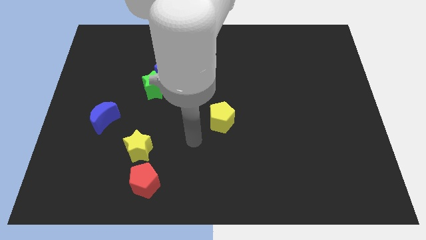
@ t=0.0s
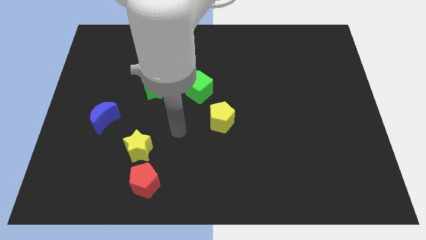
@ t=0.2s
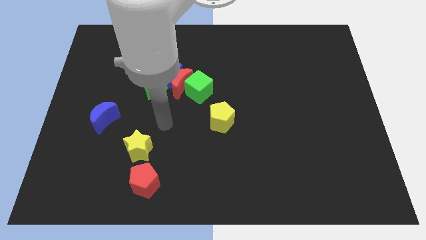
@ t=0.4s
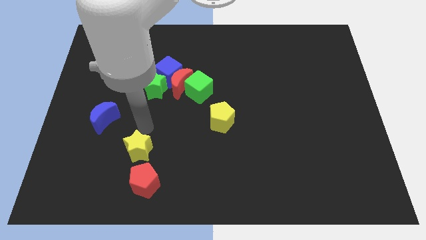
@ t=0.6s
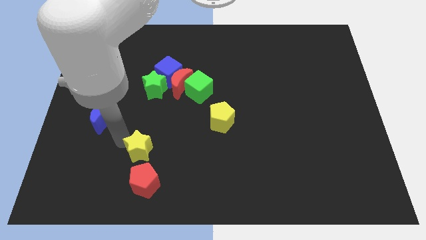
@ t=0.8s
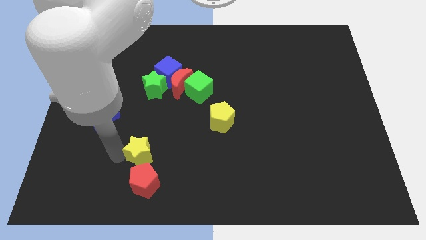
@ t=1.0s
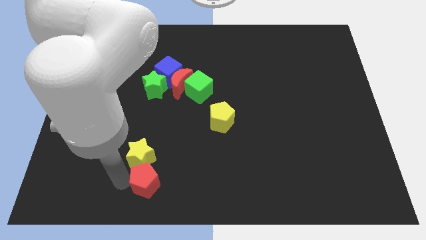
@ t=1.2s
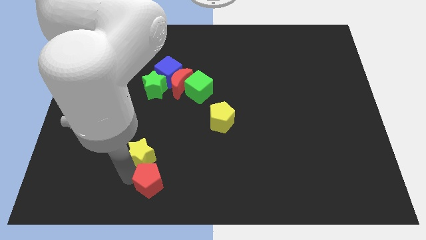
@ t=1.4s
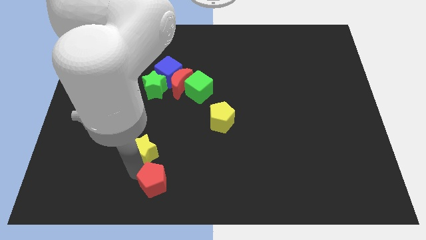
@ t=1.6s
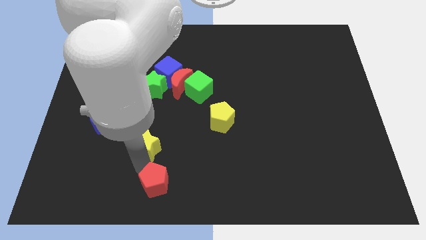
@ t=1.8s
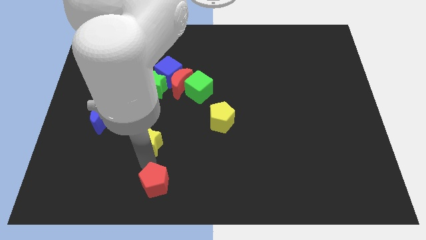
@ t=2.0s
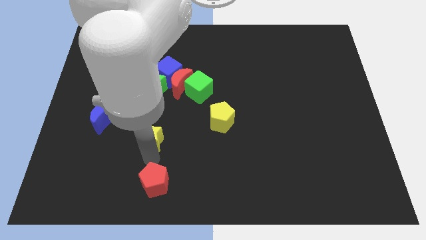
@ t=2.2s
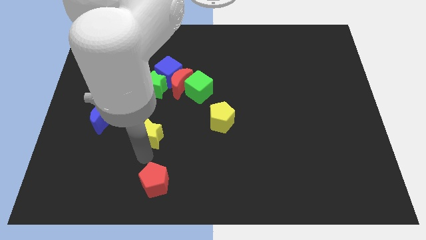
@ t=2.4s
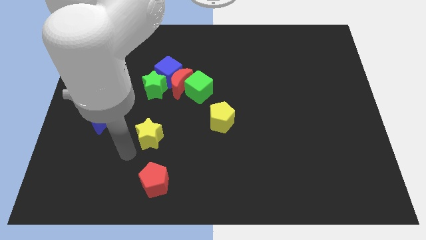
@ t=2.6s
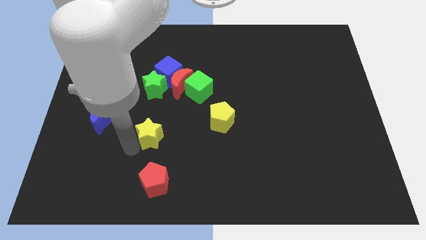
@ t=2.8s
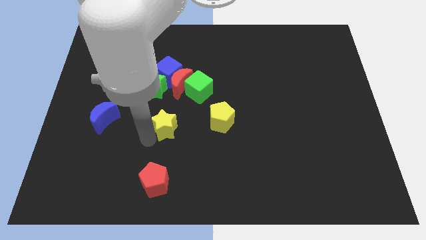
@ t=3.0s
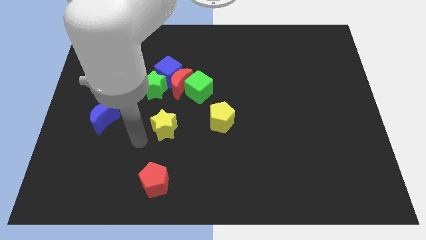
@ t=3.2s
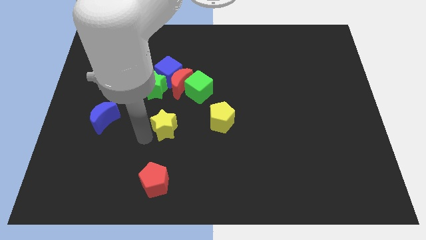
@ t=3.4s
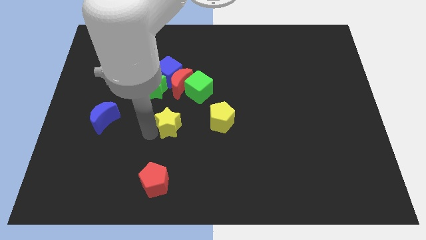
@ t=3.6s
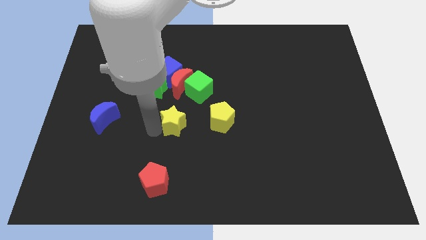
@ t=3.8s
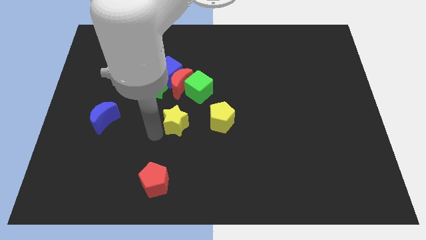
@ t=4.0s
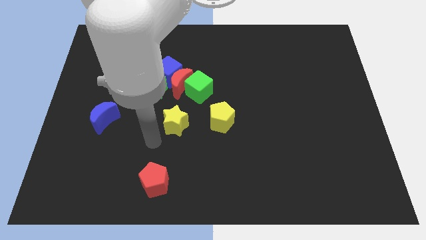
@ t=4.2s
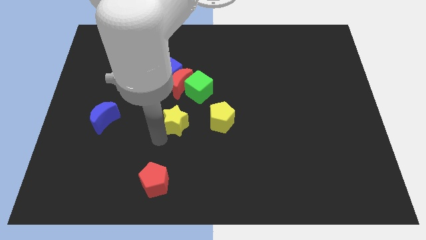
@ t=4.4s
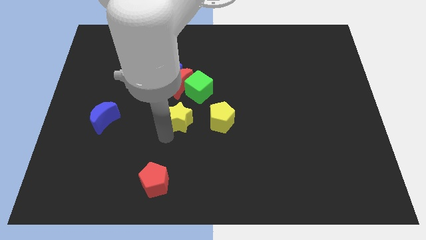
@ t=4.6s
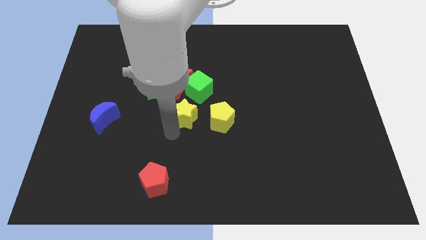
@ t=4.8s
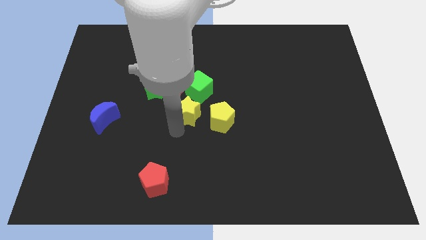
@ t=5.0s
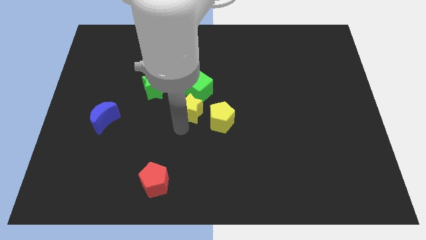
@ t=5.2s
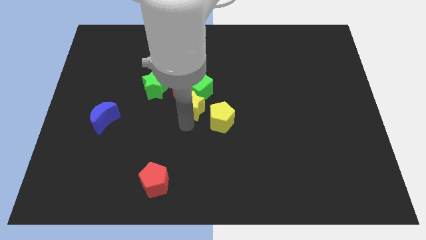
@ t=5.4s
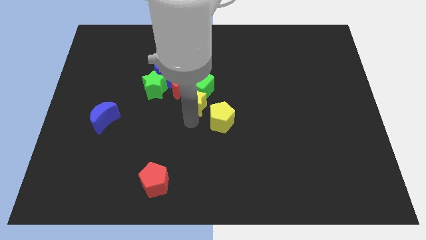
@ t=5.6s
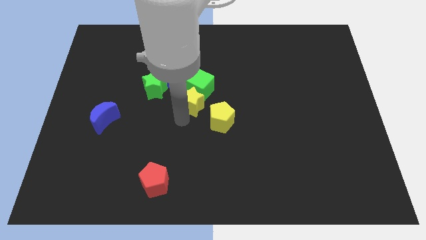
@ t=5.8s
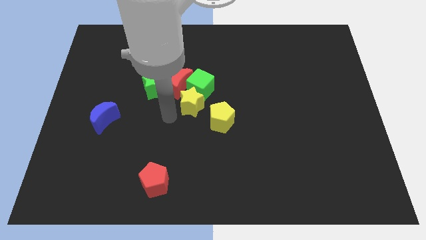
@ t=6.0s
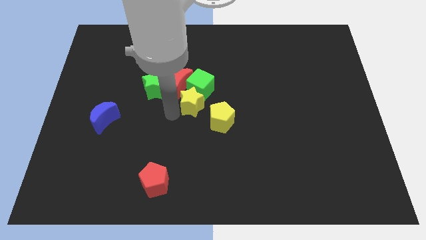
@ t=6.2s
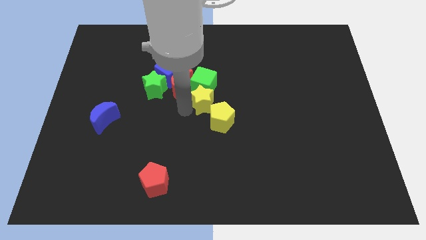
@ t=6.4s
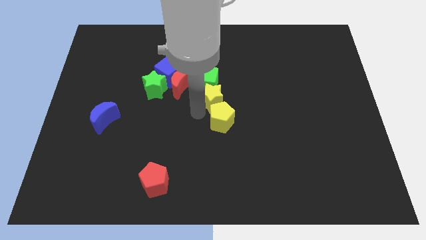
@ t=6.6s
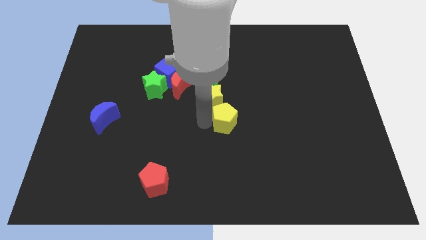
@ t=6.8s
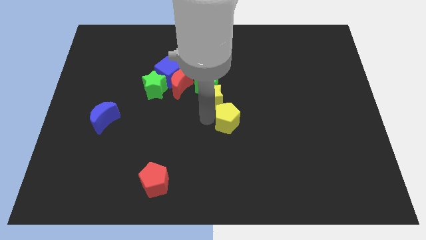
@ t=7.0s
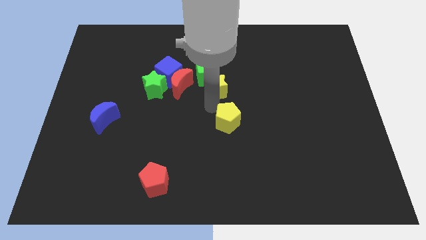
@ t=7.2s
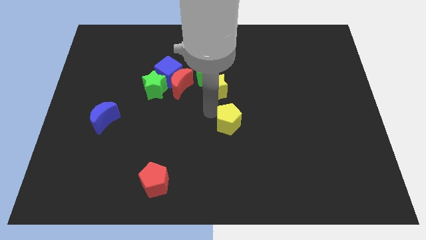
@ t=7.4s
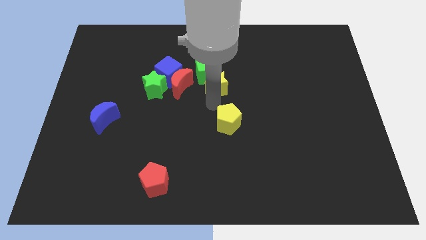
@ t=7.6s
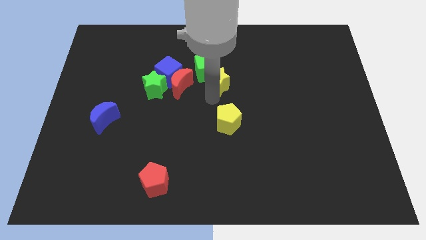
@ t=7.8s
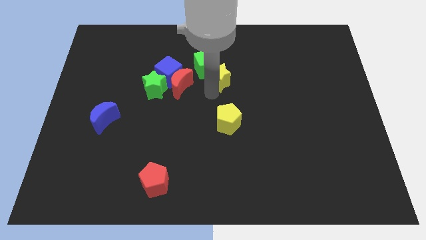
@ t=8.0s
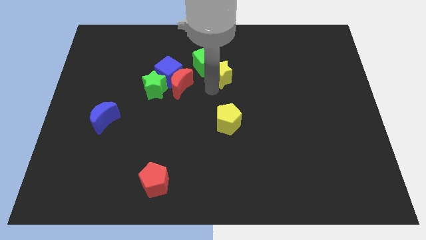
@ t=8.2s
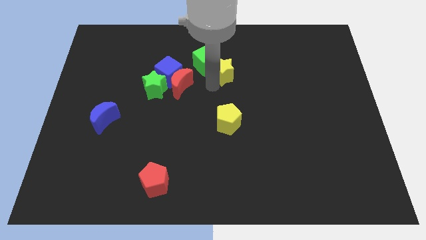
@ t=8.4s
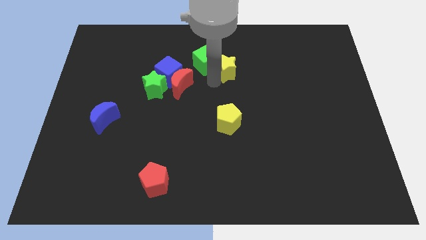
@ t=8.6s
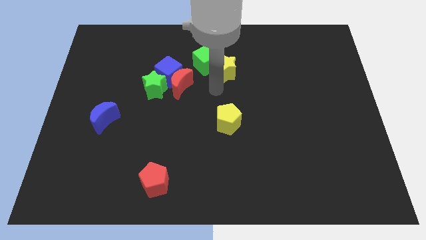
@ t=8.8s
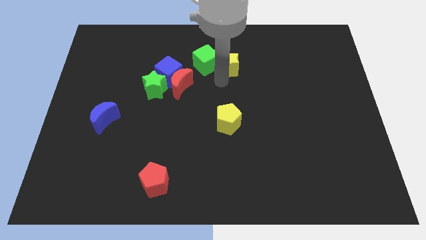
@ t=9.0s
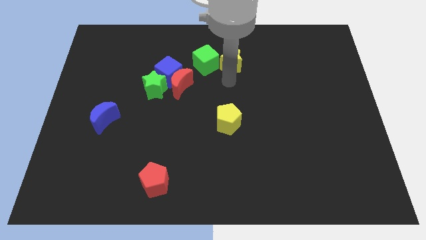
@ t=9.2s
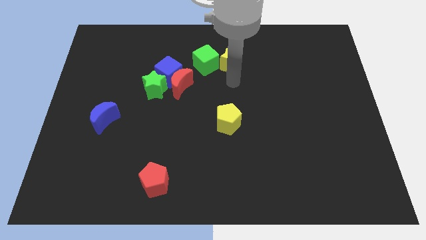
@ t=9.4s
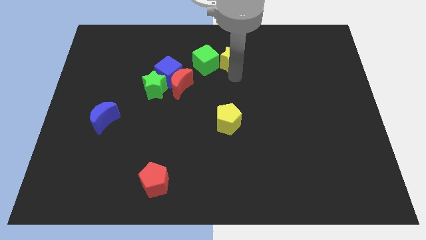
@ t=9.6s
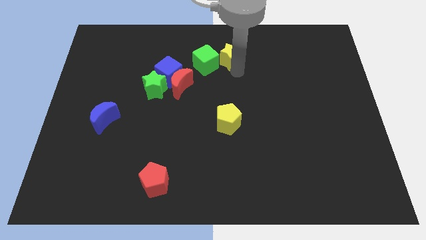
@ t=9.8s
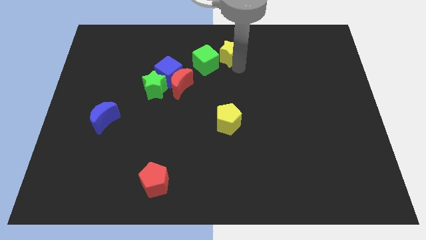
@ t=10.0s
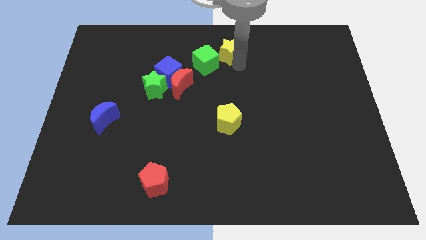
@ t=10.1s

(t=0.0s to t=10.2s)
push the yellow star to the towards your base

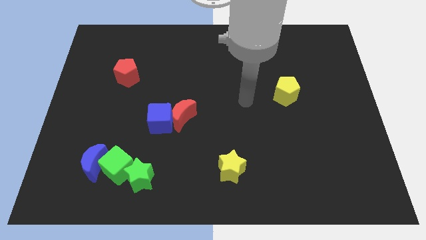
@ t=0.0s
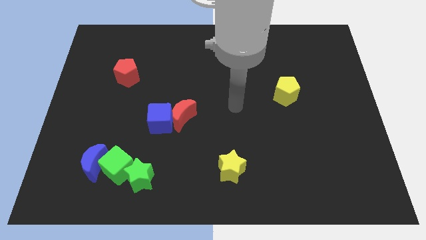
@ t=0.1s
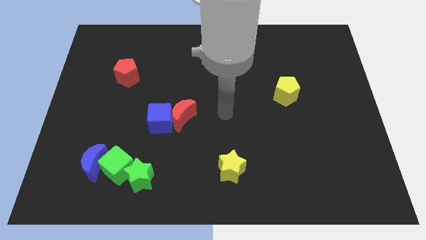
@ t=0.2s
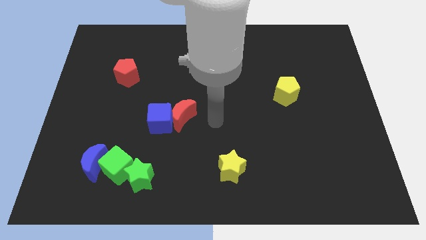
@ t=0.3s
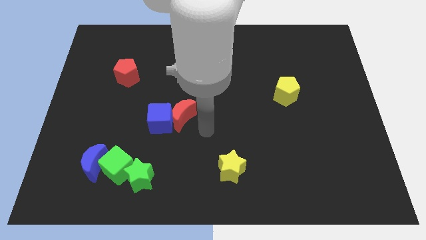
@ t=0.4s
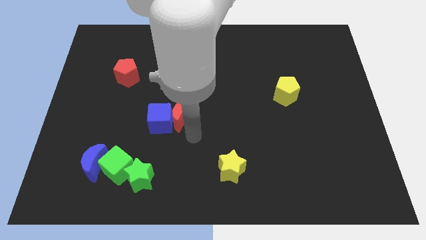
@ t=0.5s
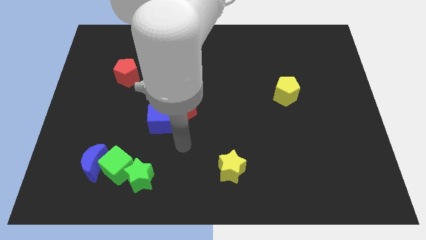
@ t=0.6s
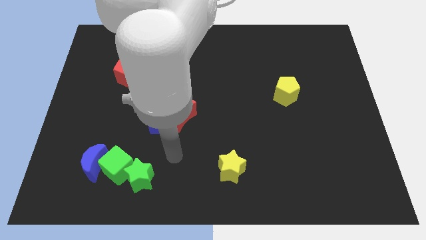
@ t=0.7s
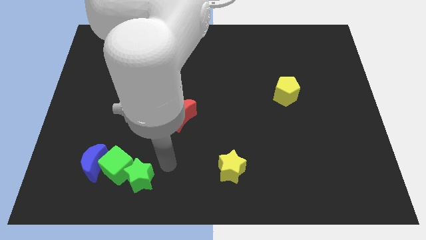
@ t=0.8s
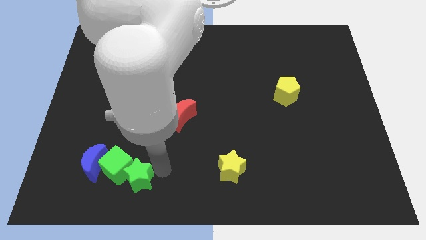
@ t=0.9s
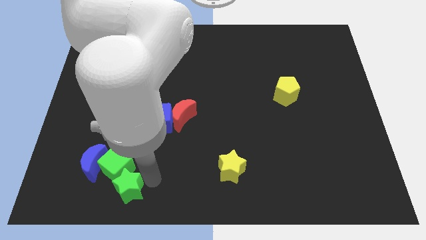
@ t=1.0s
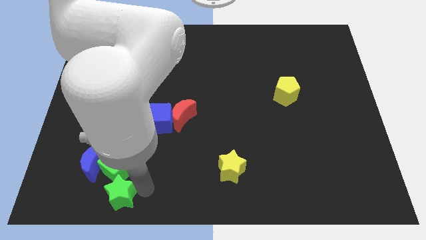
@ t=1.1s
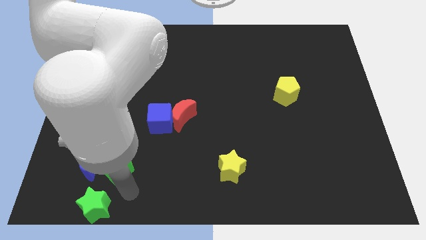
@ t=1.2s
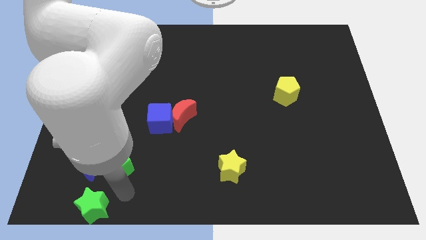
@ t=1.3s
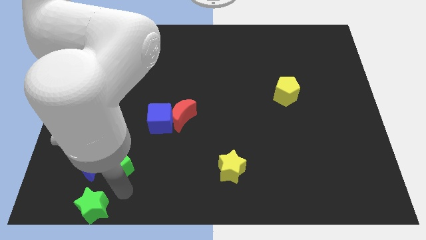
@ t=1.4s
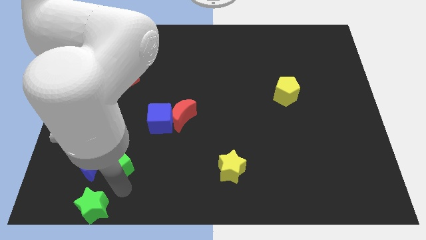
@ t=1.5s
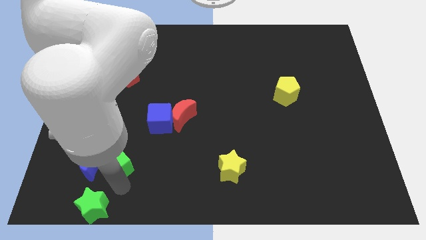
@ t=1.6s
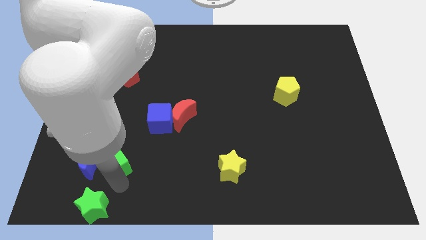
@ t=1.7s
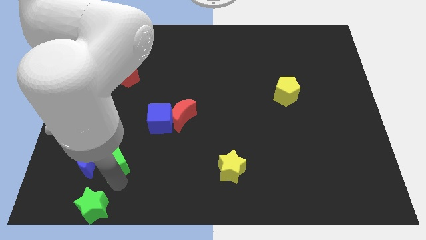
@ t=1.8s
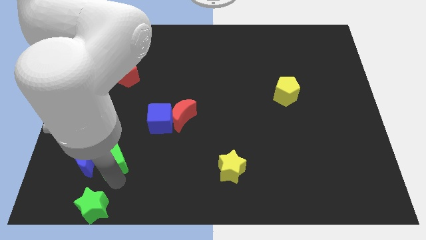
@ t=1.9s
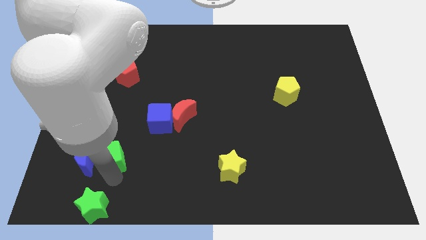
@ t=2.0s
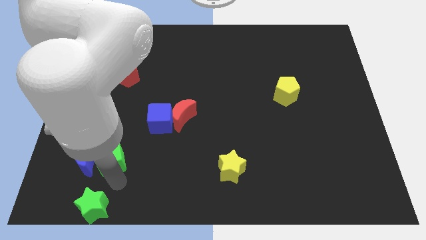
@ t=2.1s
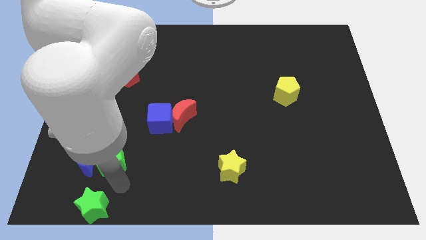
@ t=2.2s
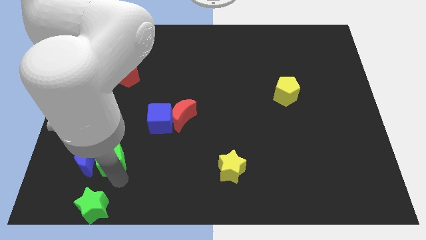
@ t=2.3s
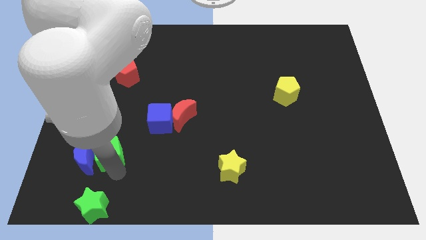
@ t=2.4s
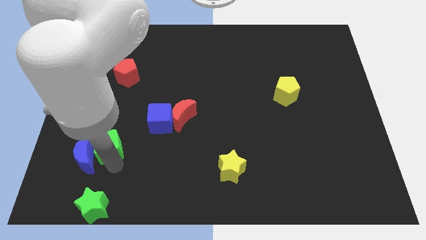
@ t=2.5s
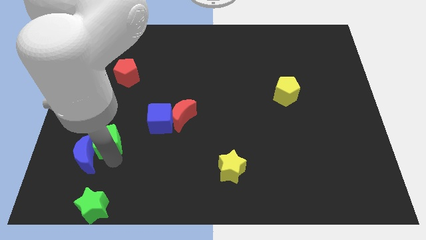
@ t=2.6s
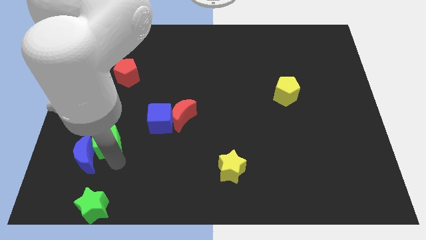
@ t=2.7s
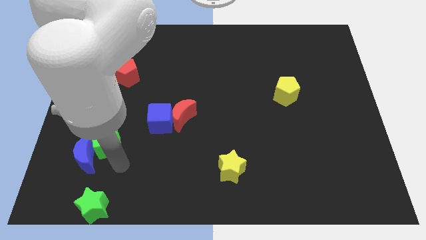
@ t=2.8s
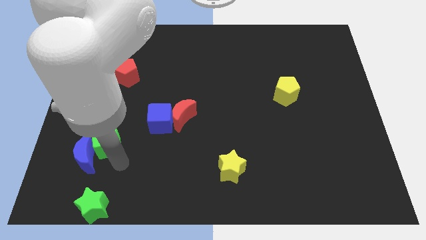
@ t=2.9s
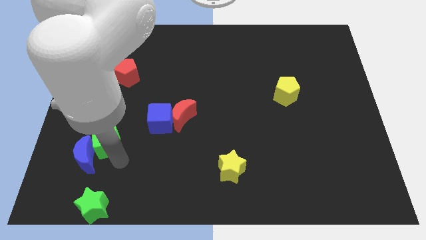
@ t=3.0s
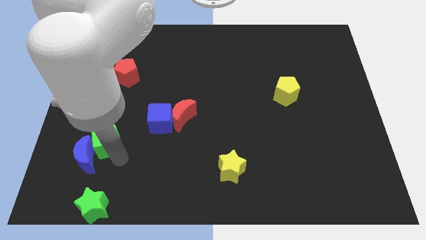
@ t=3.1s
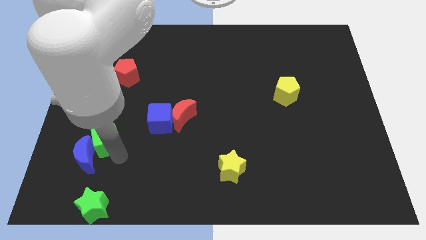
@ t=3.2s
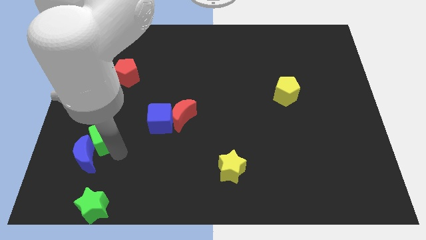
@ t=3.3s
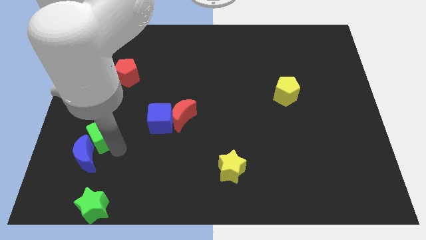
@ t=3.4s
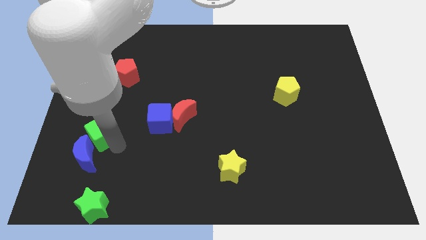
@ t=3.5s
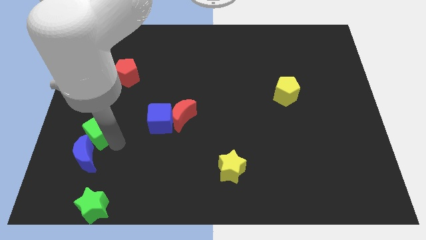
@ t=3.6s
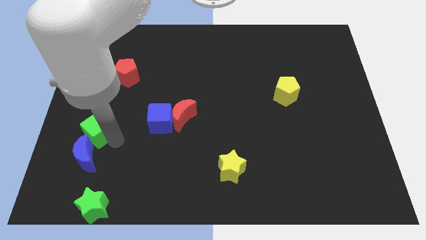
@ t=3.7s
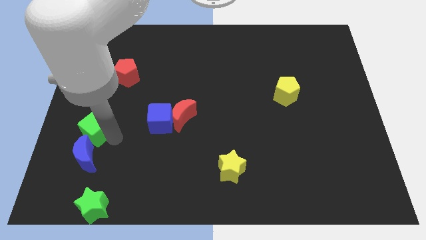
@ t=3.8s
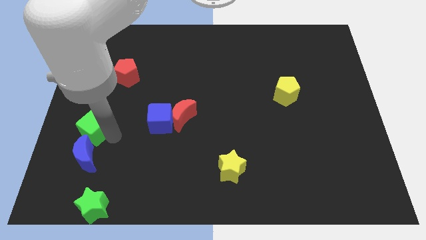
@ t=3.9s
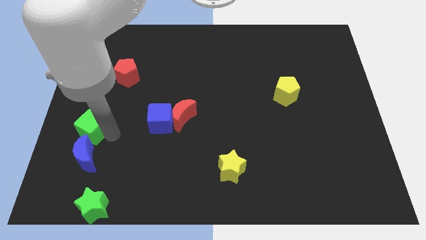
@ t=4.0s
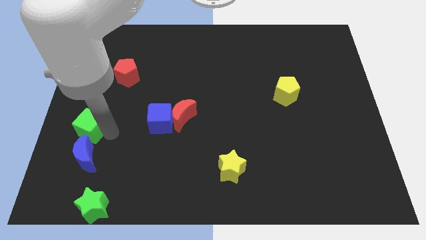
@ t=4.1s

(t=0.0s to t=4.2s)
push the green cube to the left side
